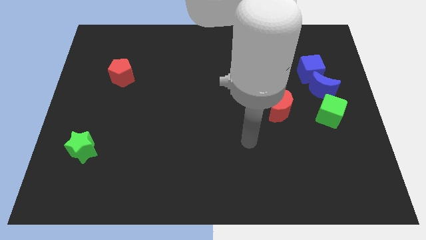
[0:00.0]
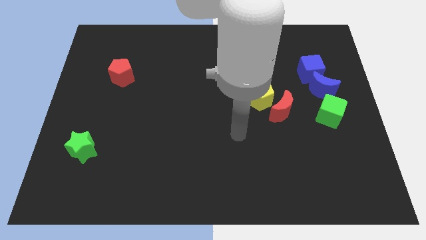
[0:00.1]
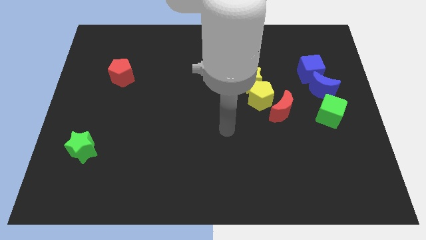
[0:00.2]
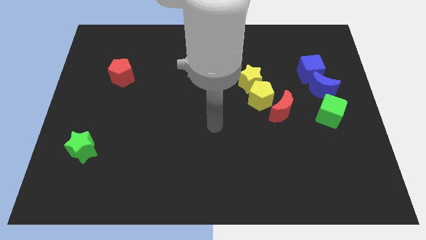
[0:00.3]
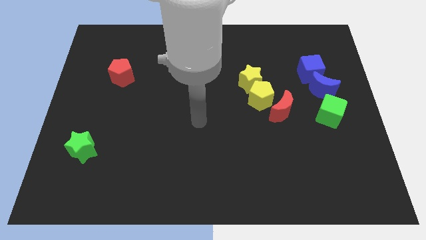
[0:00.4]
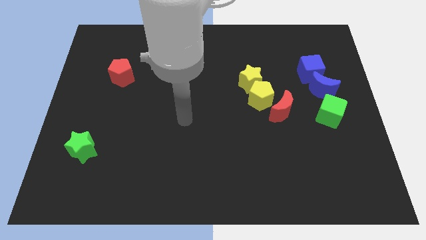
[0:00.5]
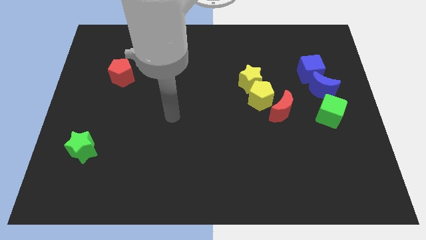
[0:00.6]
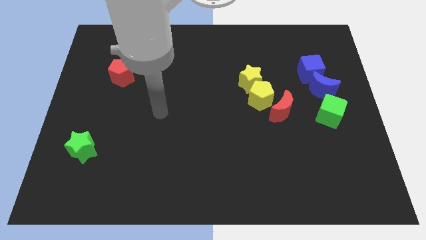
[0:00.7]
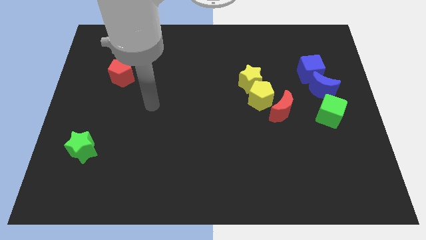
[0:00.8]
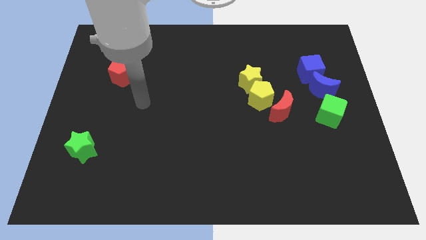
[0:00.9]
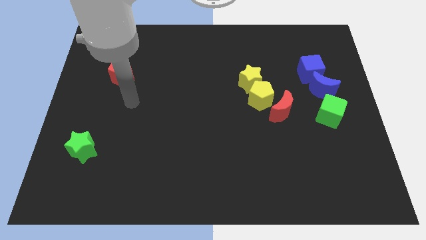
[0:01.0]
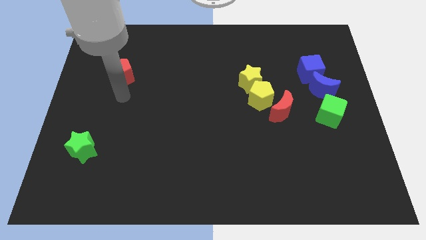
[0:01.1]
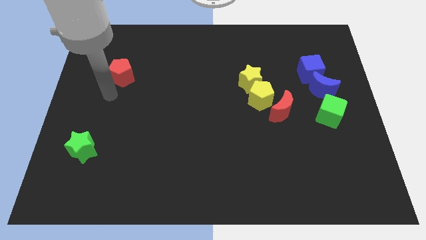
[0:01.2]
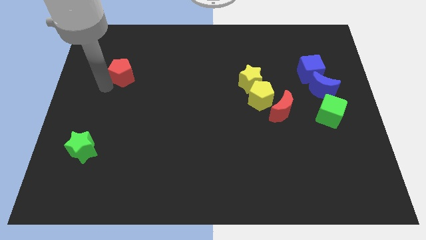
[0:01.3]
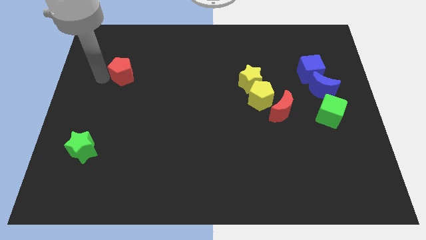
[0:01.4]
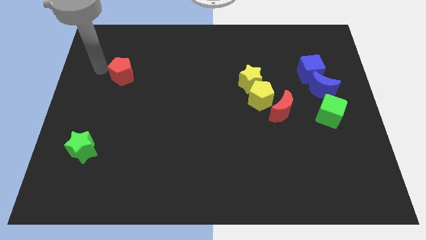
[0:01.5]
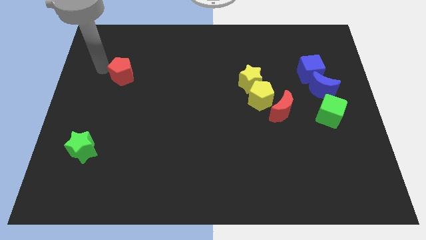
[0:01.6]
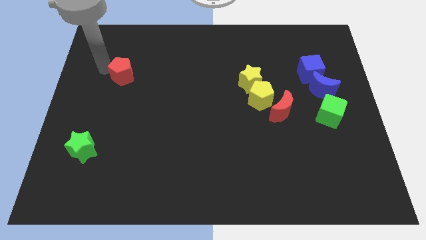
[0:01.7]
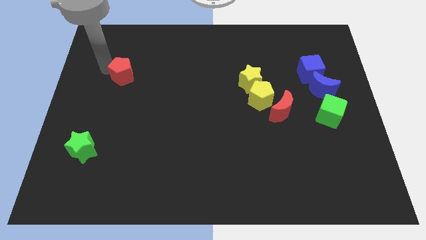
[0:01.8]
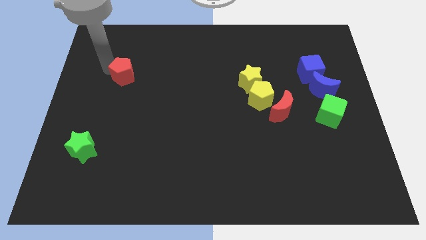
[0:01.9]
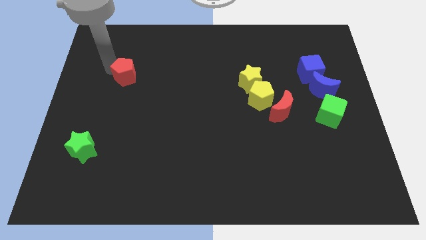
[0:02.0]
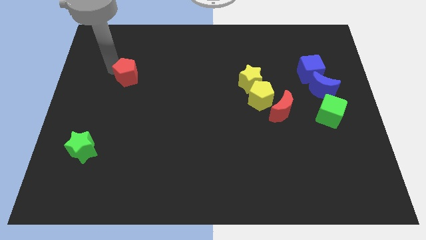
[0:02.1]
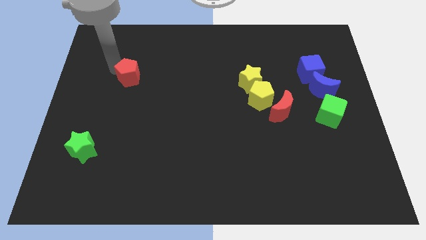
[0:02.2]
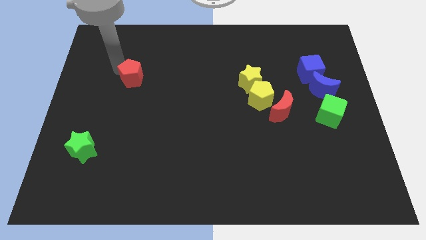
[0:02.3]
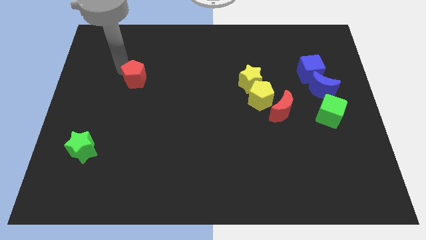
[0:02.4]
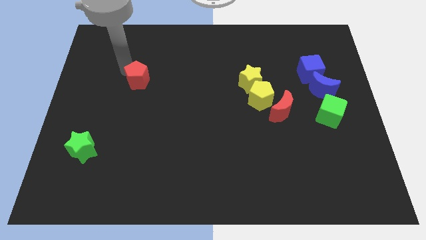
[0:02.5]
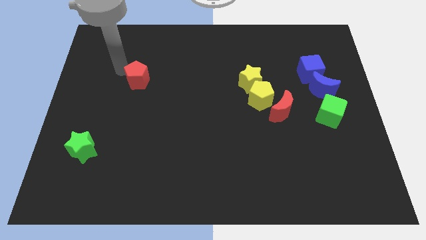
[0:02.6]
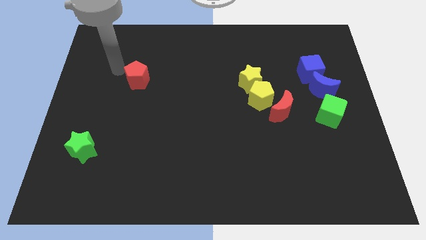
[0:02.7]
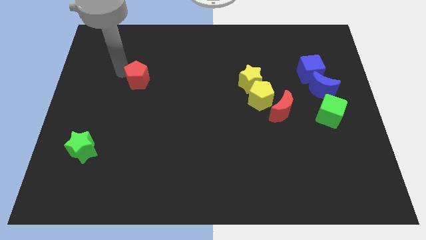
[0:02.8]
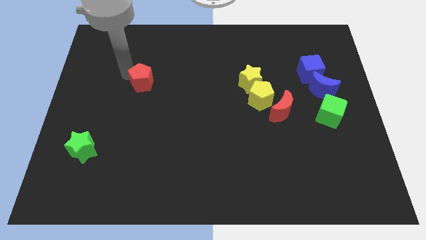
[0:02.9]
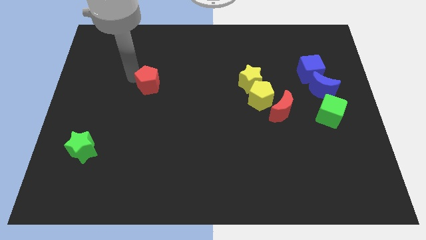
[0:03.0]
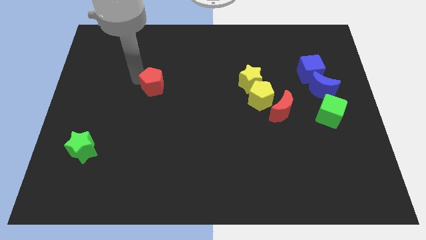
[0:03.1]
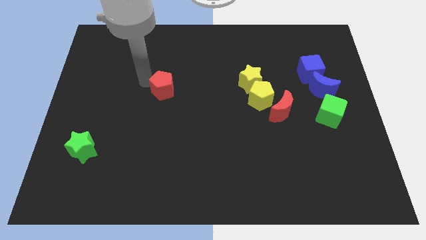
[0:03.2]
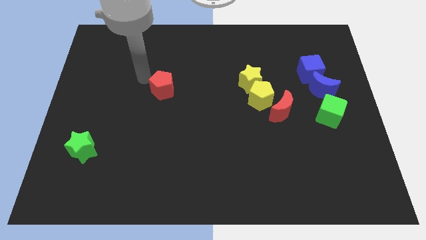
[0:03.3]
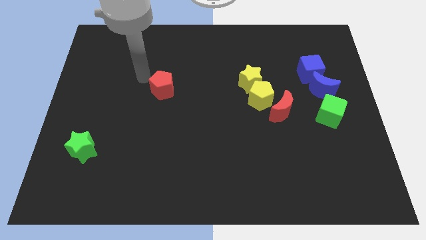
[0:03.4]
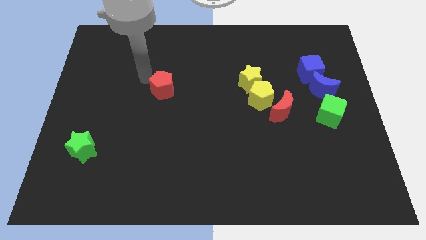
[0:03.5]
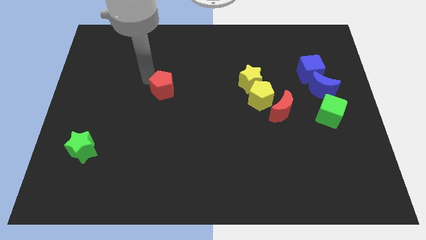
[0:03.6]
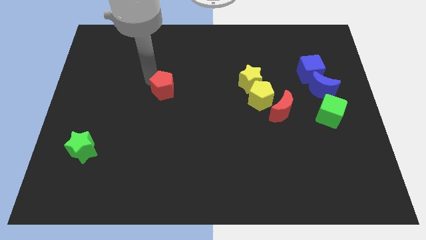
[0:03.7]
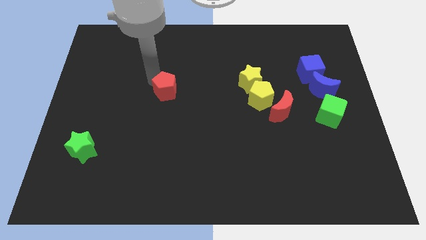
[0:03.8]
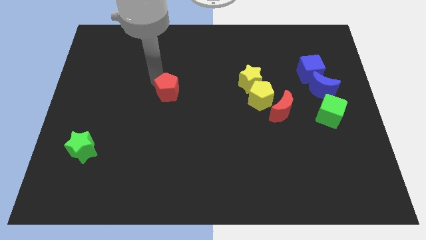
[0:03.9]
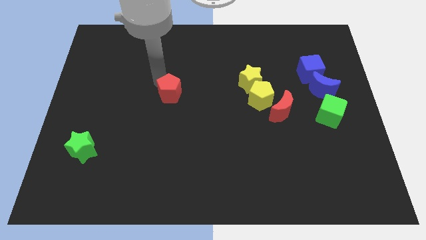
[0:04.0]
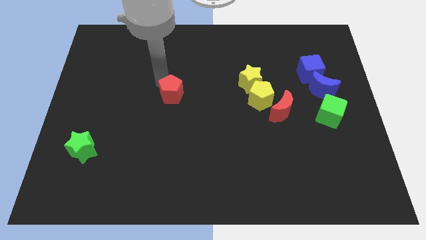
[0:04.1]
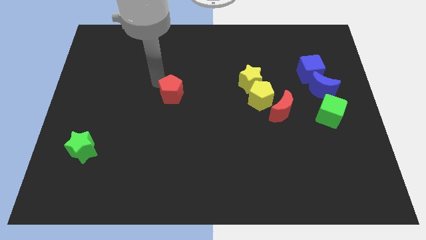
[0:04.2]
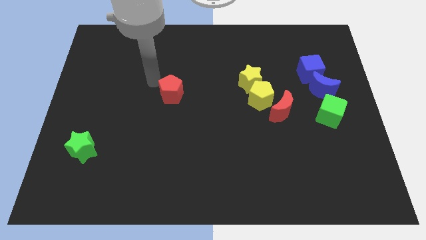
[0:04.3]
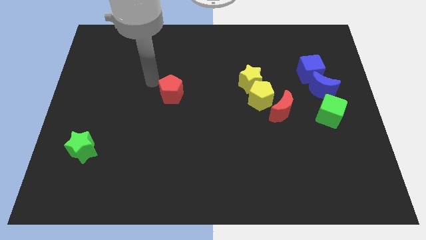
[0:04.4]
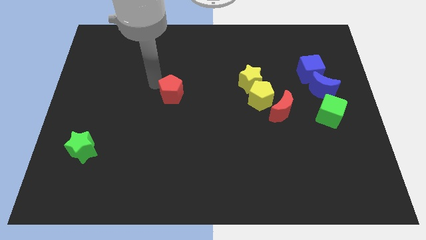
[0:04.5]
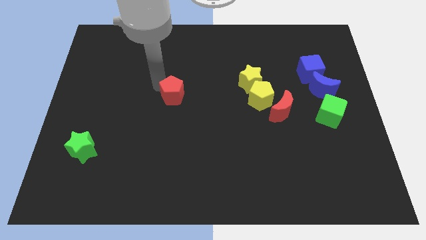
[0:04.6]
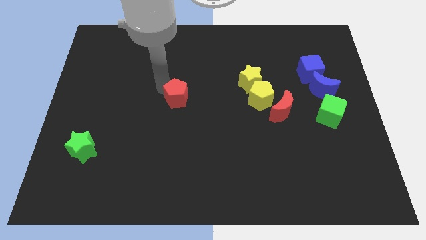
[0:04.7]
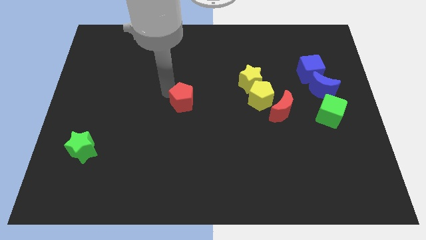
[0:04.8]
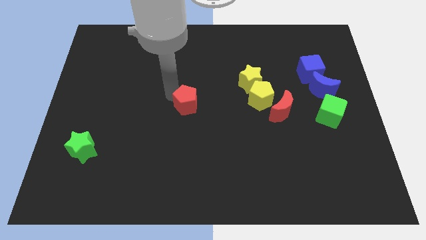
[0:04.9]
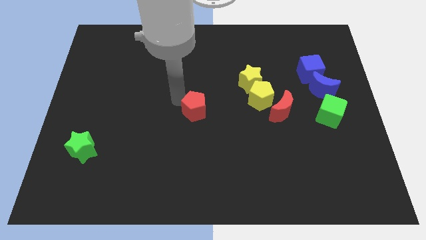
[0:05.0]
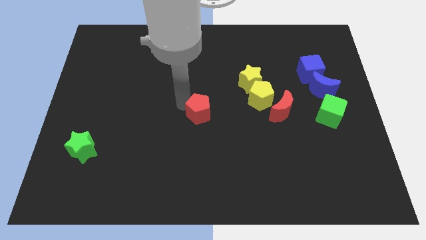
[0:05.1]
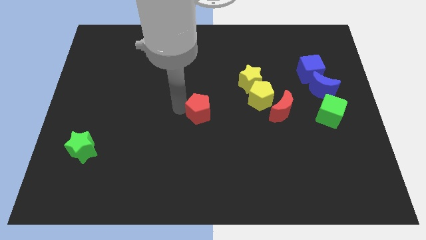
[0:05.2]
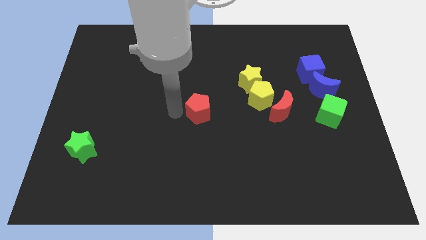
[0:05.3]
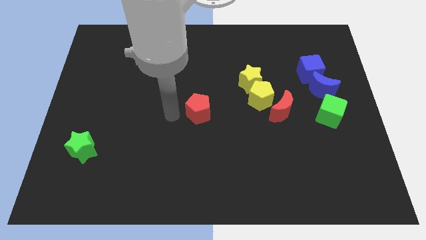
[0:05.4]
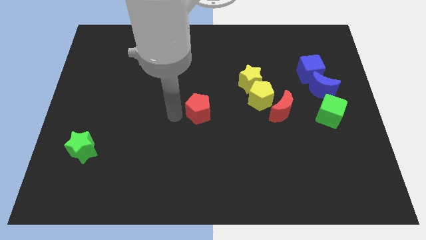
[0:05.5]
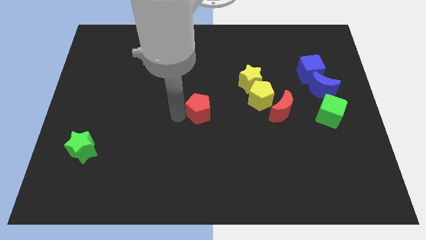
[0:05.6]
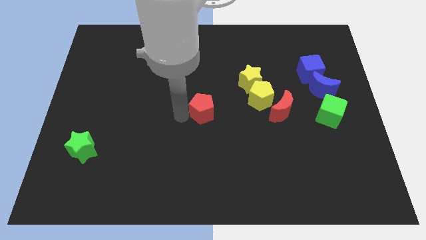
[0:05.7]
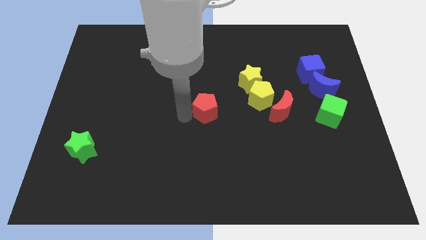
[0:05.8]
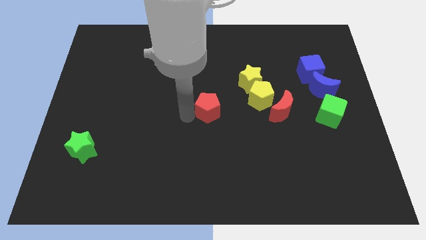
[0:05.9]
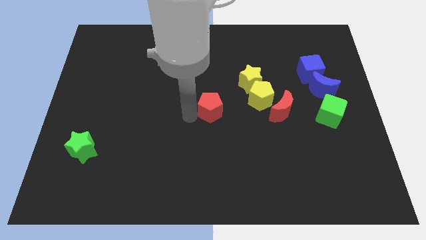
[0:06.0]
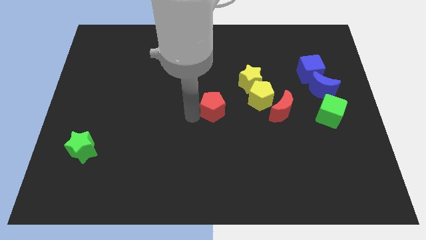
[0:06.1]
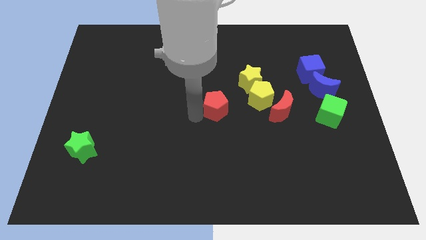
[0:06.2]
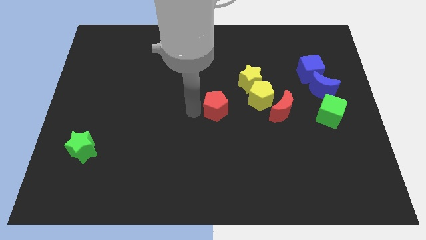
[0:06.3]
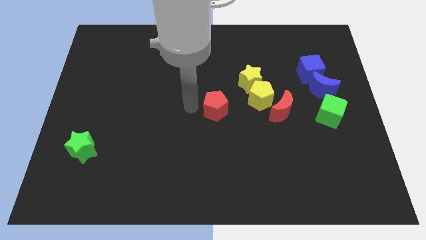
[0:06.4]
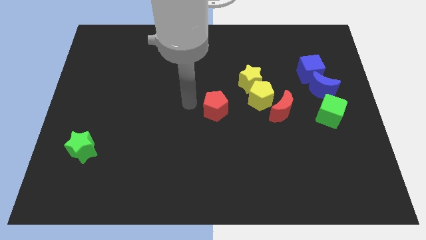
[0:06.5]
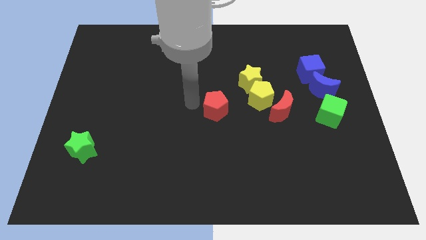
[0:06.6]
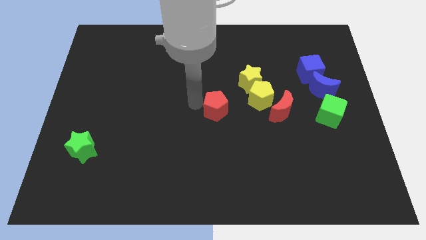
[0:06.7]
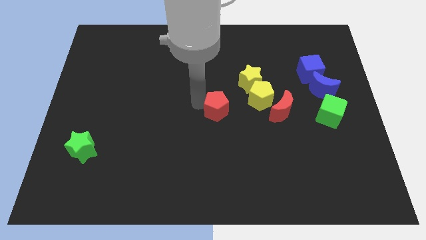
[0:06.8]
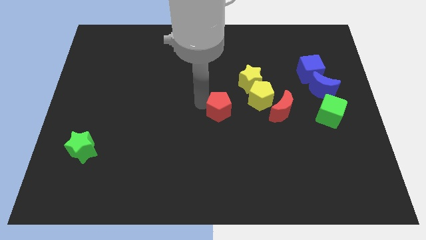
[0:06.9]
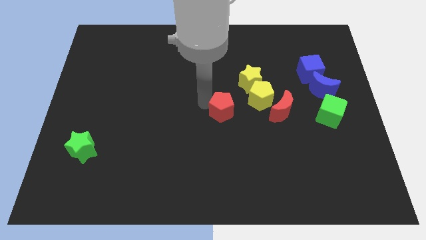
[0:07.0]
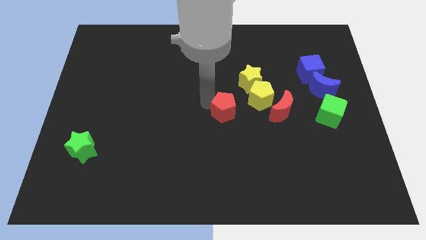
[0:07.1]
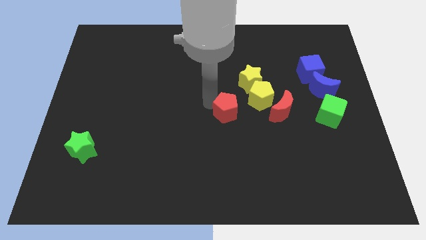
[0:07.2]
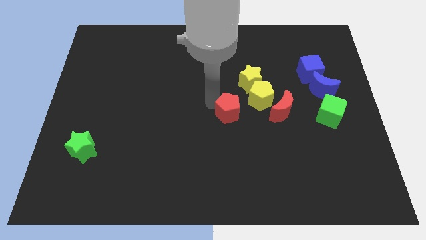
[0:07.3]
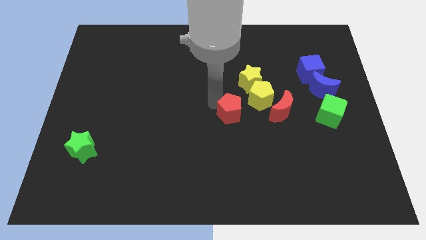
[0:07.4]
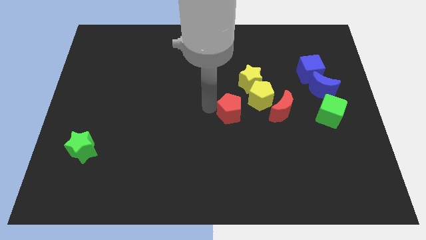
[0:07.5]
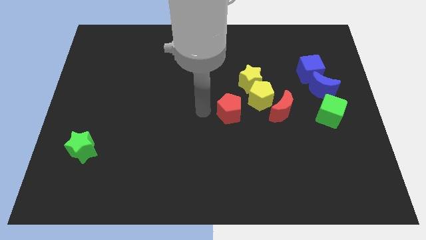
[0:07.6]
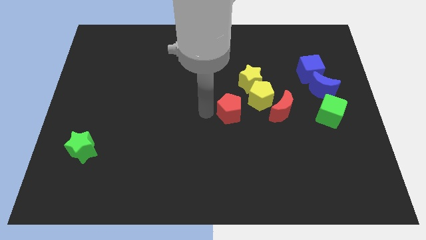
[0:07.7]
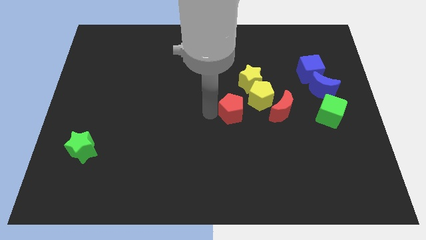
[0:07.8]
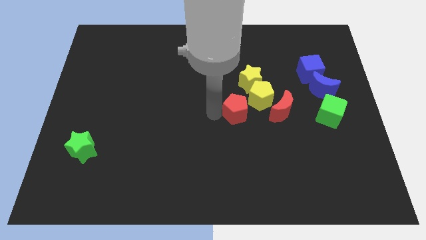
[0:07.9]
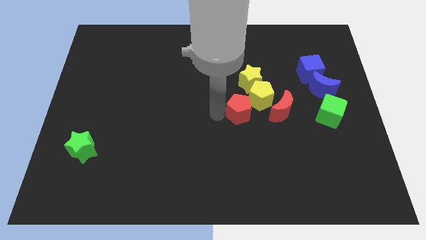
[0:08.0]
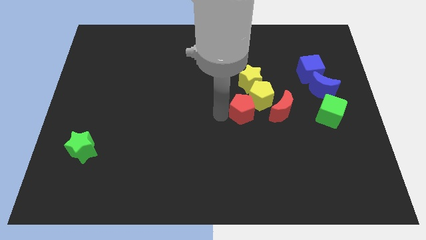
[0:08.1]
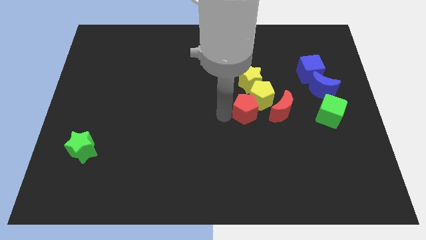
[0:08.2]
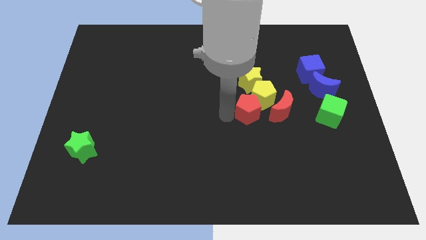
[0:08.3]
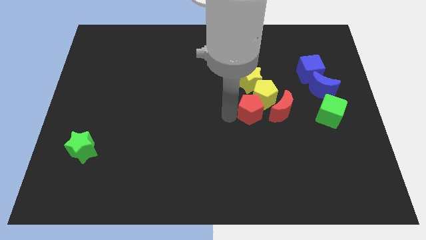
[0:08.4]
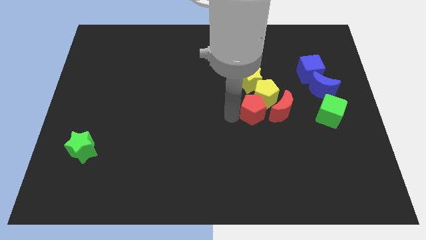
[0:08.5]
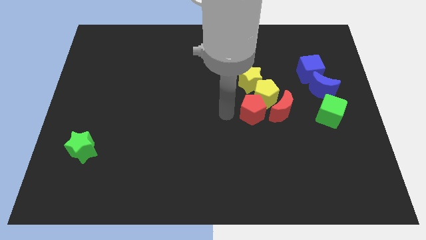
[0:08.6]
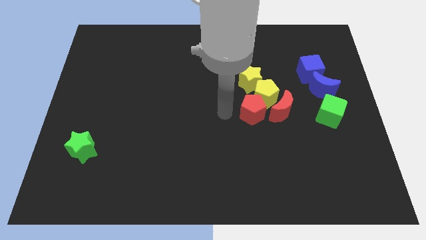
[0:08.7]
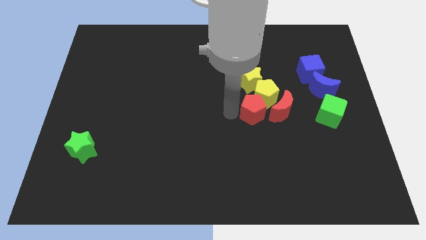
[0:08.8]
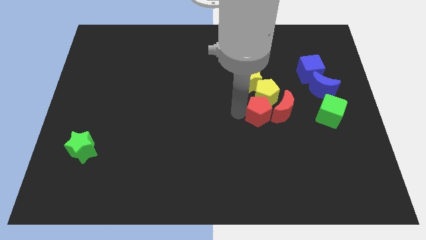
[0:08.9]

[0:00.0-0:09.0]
slide the red pentagon next to the red moon
